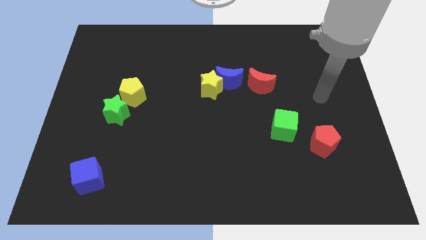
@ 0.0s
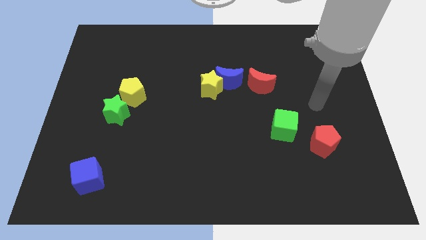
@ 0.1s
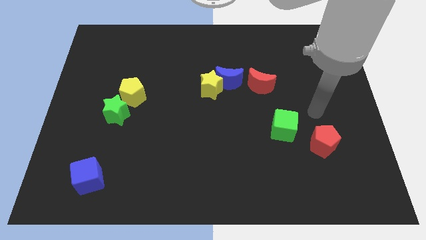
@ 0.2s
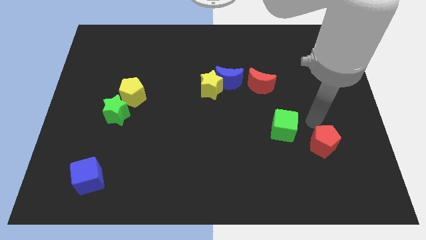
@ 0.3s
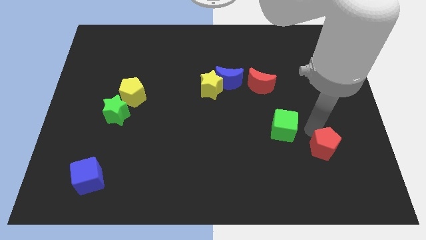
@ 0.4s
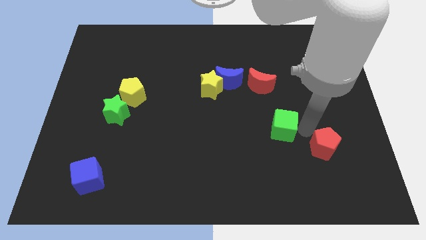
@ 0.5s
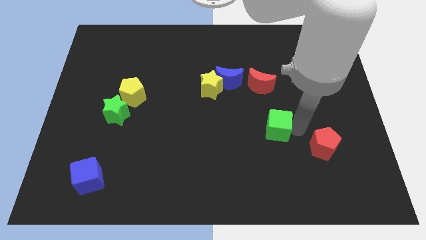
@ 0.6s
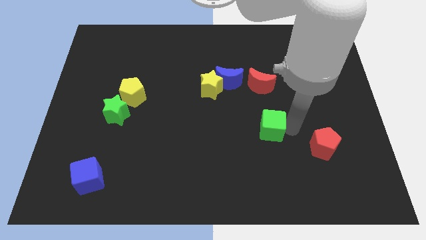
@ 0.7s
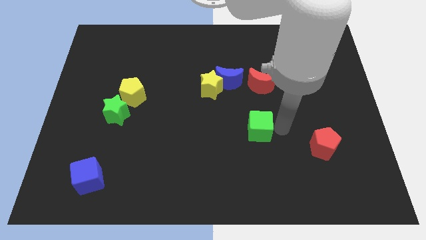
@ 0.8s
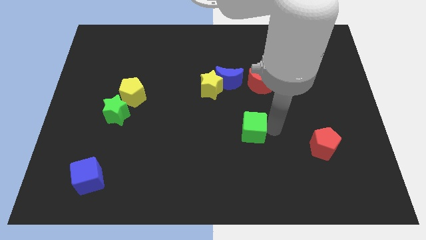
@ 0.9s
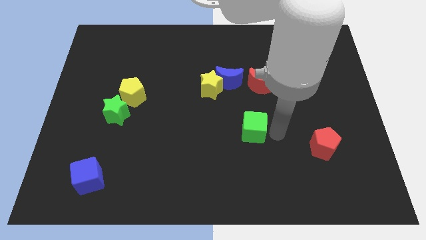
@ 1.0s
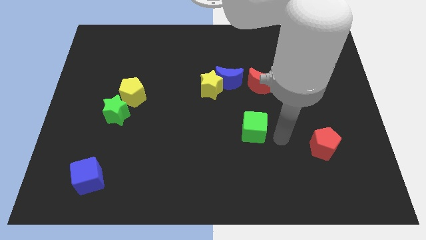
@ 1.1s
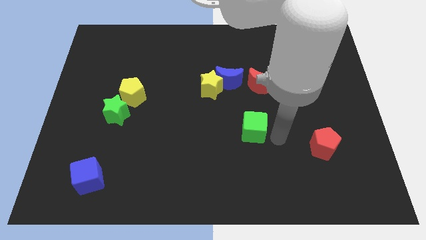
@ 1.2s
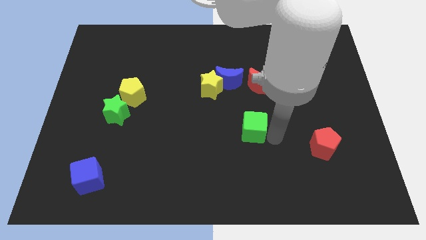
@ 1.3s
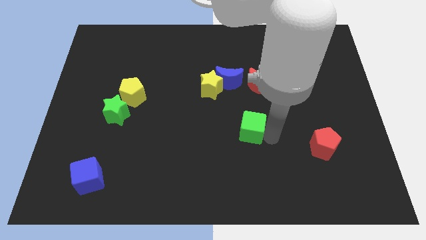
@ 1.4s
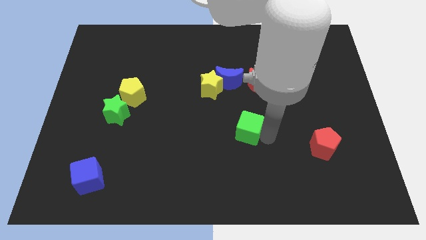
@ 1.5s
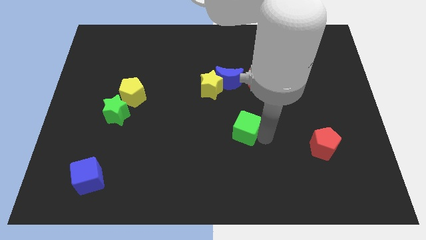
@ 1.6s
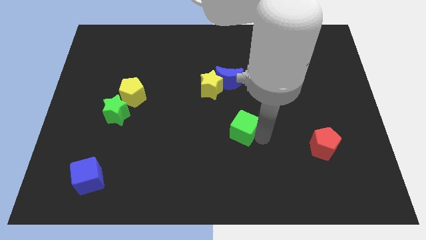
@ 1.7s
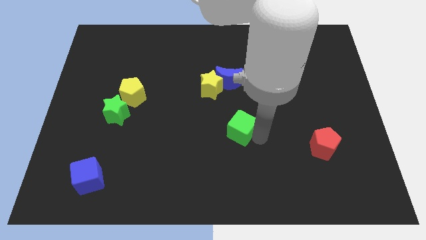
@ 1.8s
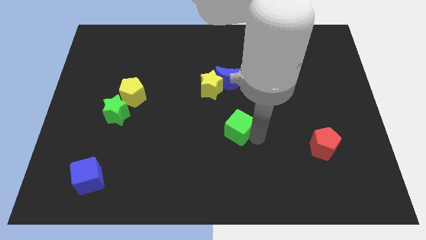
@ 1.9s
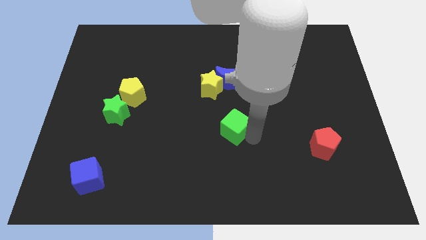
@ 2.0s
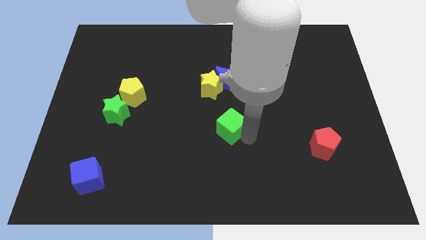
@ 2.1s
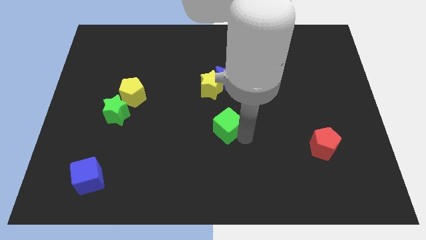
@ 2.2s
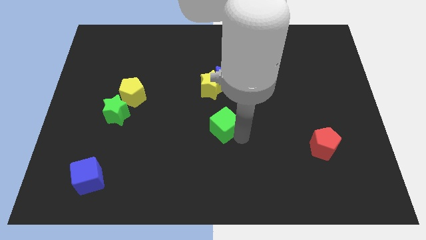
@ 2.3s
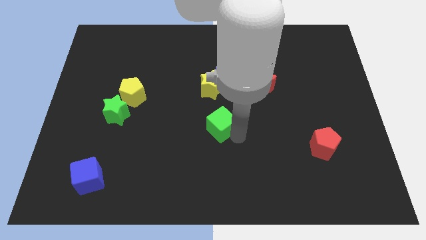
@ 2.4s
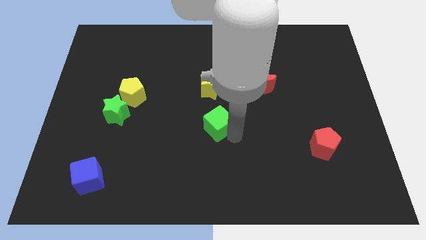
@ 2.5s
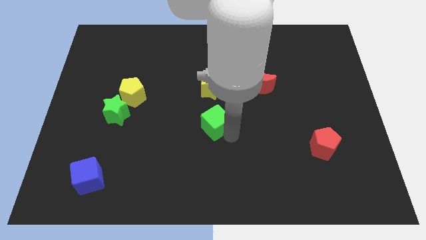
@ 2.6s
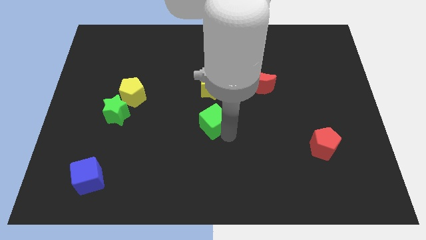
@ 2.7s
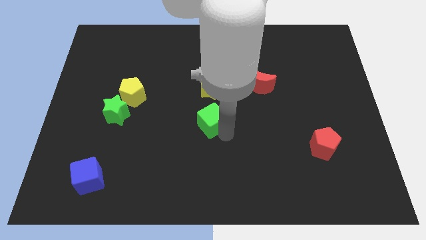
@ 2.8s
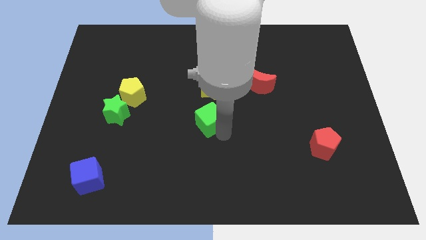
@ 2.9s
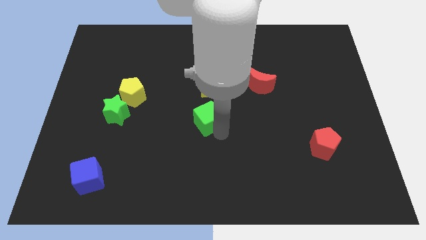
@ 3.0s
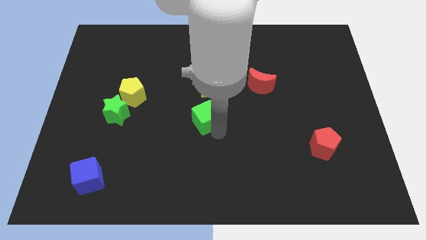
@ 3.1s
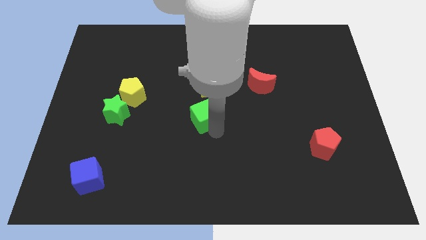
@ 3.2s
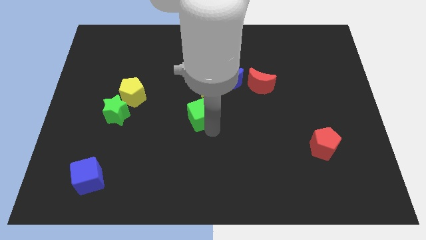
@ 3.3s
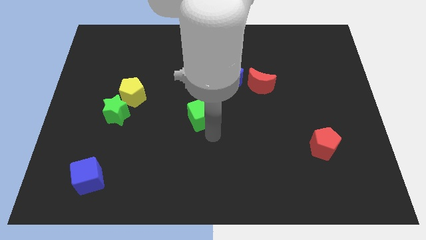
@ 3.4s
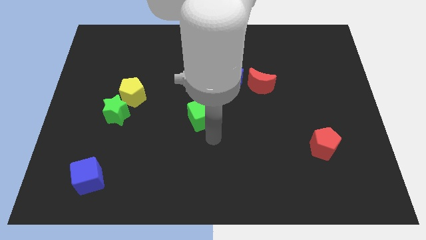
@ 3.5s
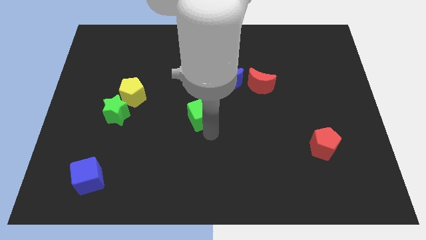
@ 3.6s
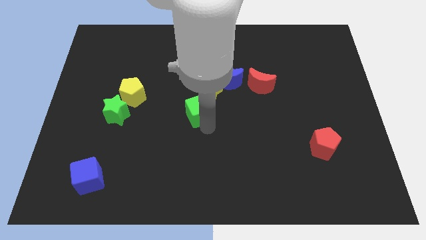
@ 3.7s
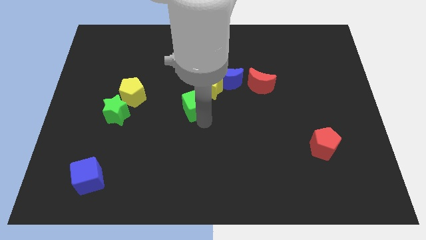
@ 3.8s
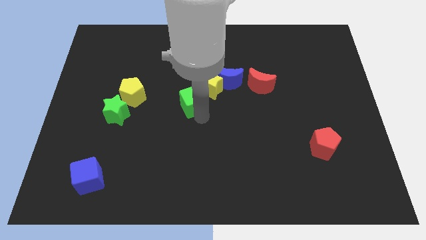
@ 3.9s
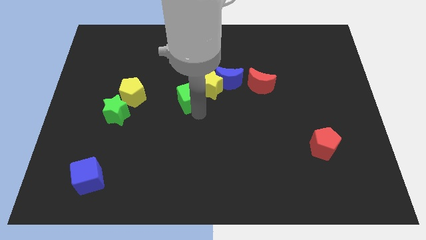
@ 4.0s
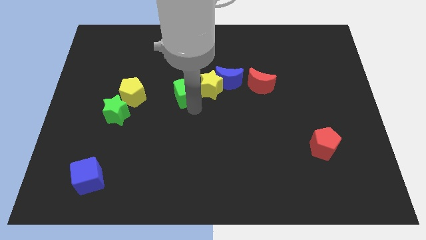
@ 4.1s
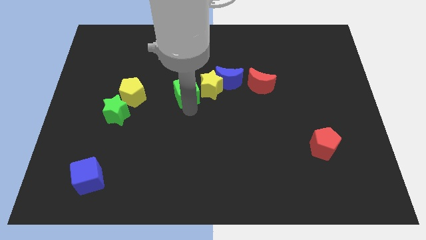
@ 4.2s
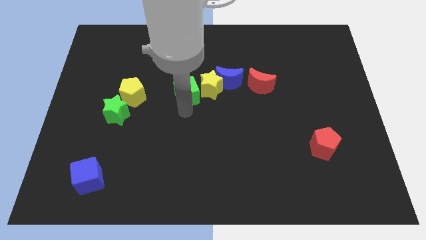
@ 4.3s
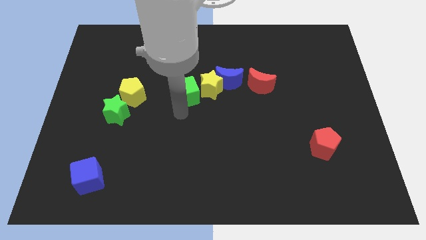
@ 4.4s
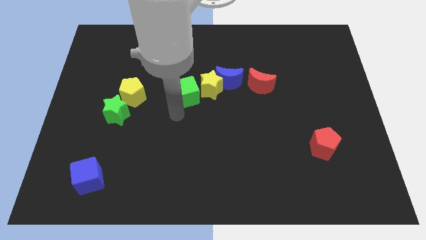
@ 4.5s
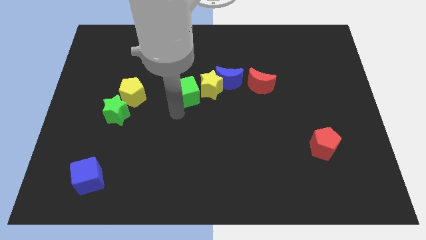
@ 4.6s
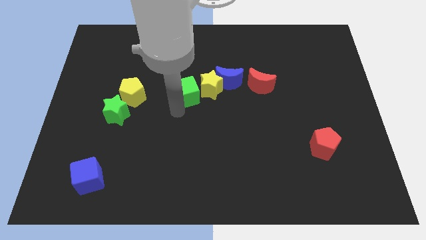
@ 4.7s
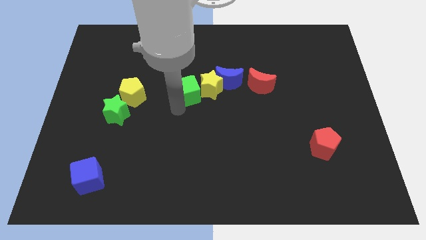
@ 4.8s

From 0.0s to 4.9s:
push the green cube up and then left

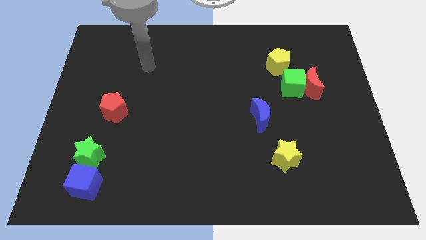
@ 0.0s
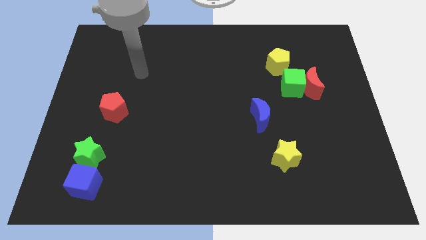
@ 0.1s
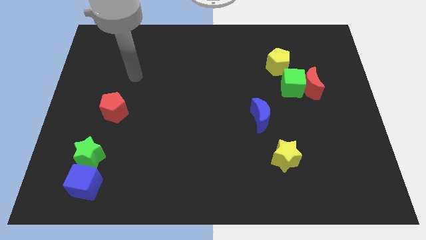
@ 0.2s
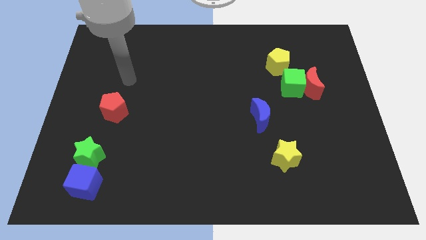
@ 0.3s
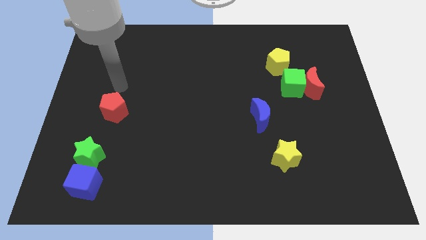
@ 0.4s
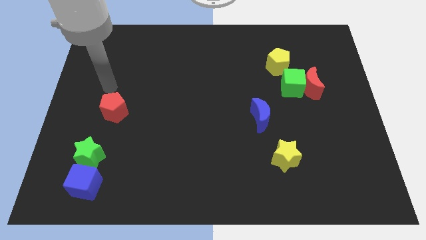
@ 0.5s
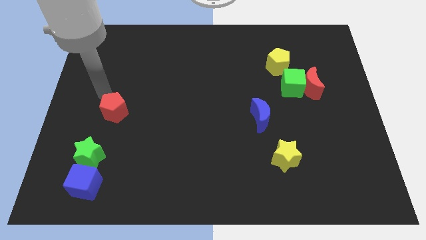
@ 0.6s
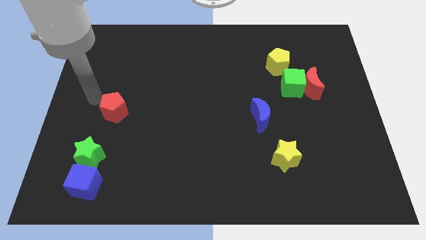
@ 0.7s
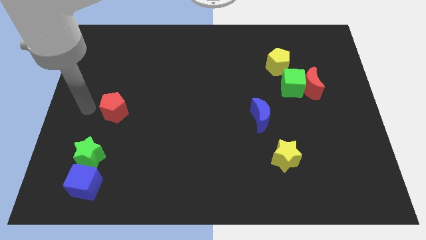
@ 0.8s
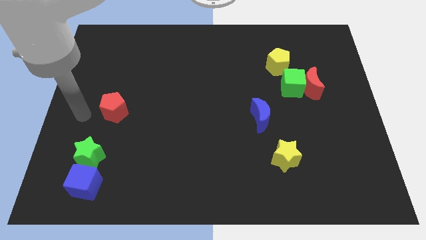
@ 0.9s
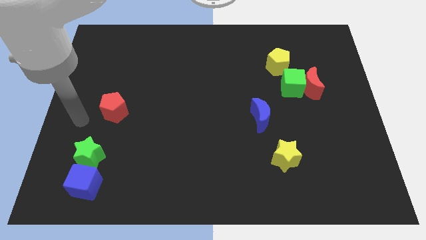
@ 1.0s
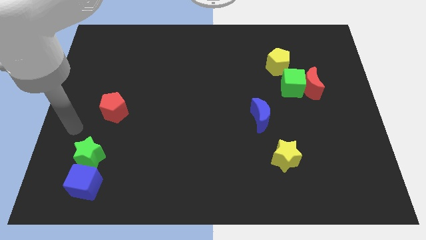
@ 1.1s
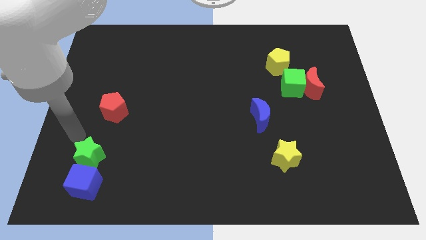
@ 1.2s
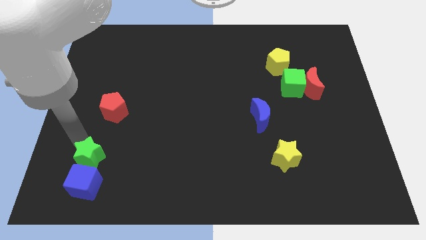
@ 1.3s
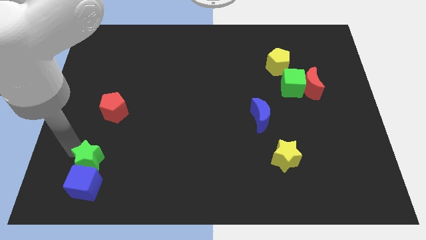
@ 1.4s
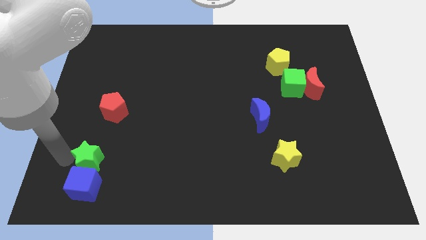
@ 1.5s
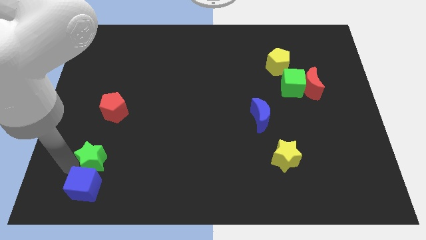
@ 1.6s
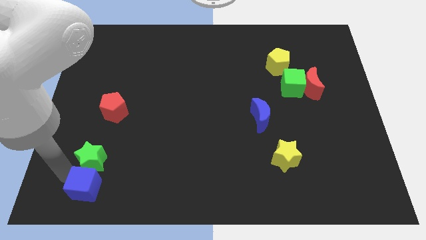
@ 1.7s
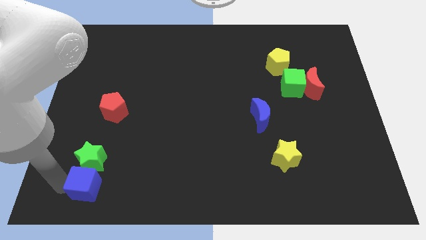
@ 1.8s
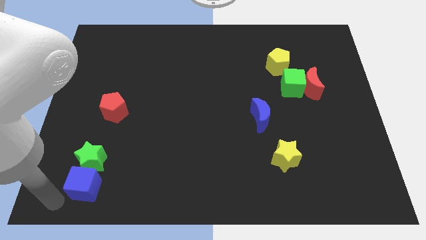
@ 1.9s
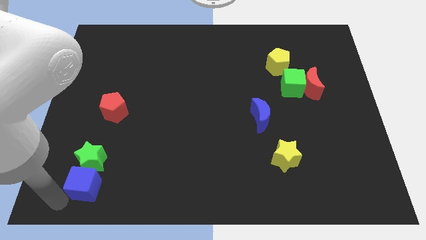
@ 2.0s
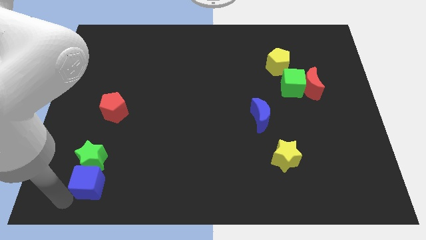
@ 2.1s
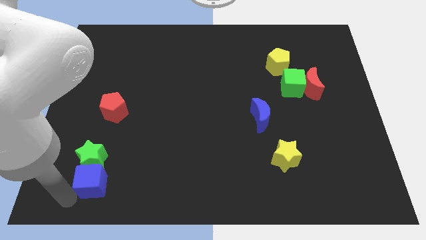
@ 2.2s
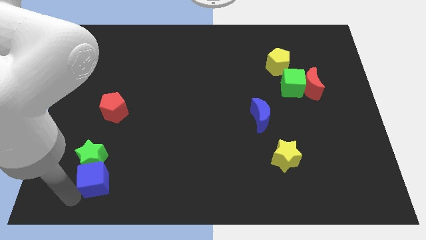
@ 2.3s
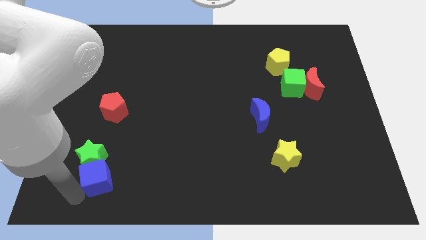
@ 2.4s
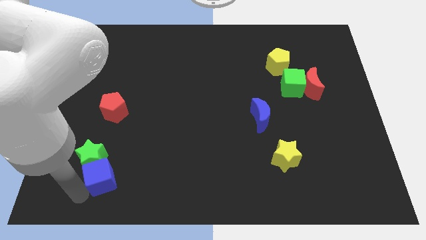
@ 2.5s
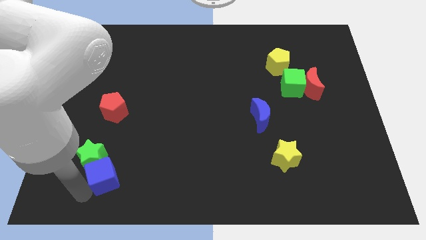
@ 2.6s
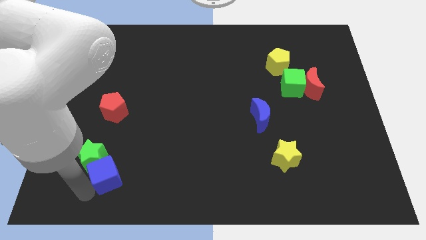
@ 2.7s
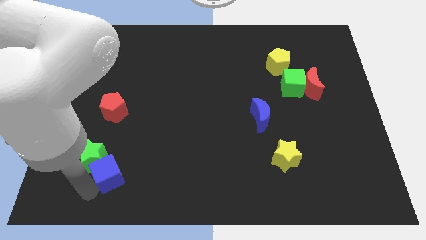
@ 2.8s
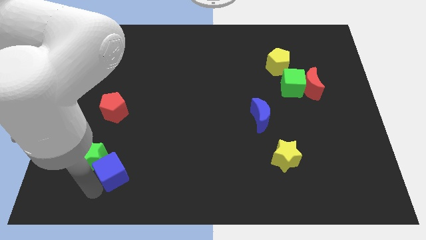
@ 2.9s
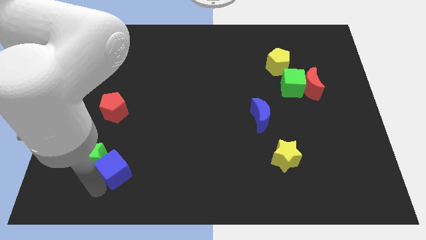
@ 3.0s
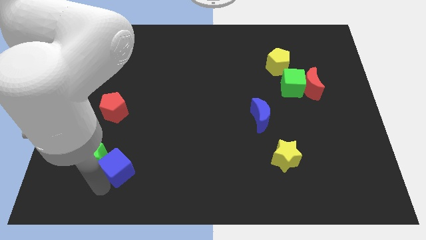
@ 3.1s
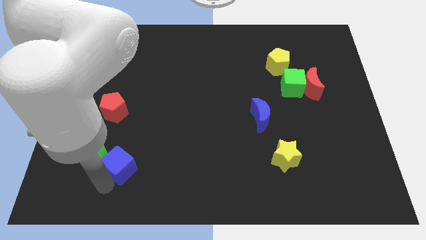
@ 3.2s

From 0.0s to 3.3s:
slide the blue cube slightly diagonally upwards and to the right
